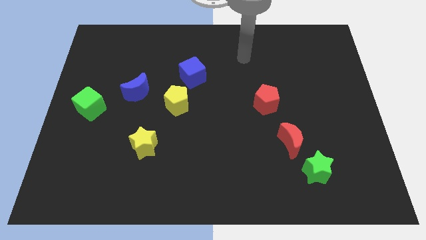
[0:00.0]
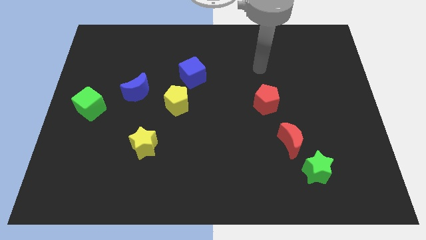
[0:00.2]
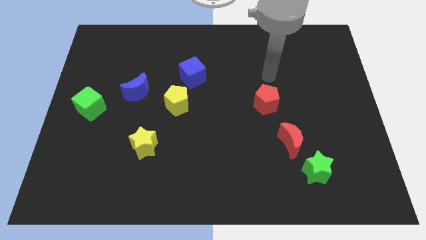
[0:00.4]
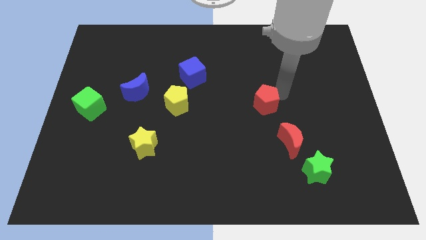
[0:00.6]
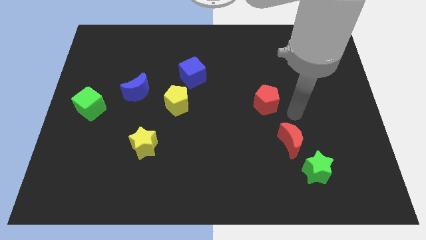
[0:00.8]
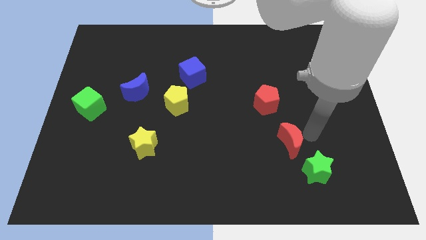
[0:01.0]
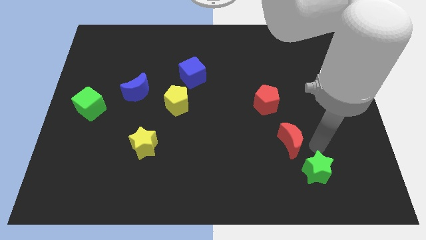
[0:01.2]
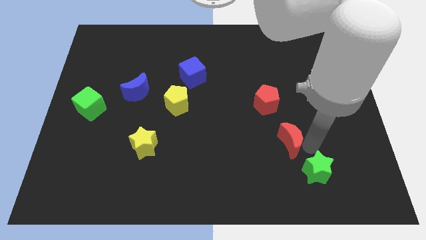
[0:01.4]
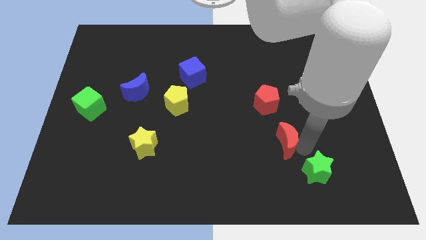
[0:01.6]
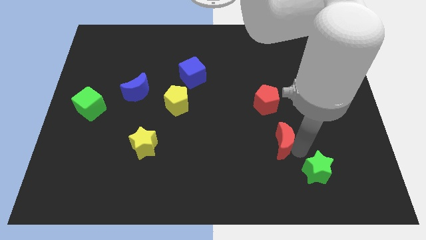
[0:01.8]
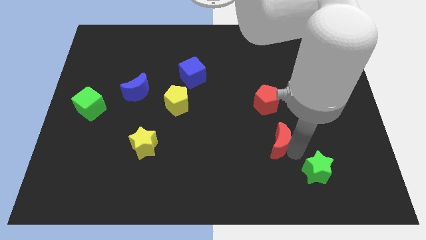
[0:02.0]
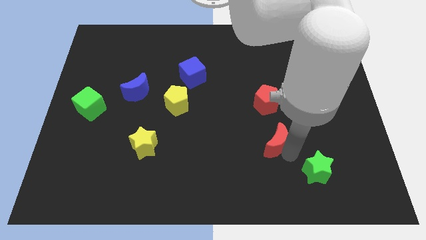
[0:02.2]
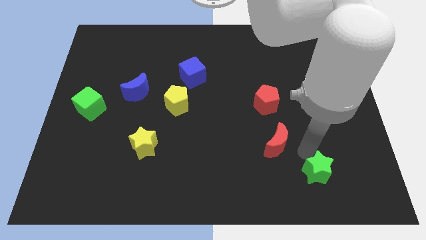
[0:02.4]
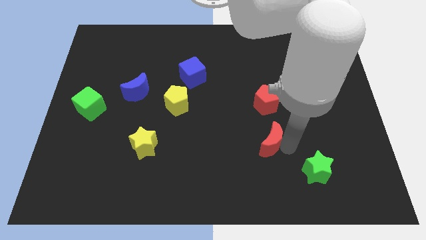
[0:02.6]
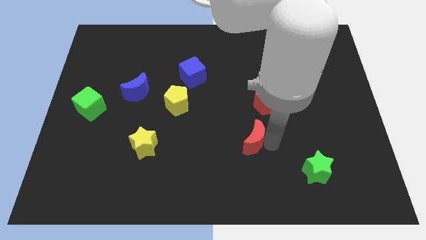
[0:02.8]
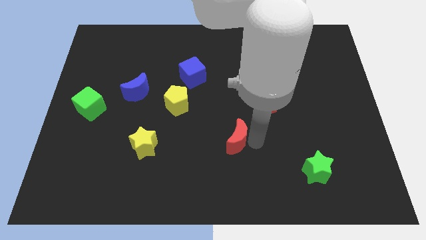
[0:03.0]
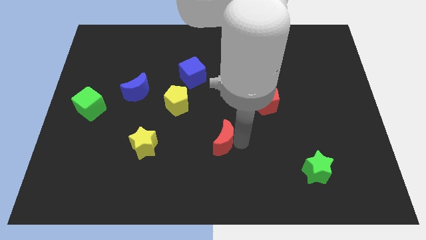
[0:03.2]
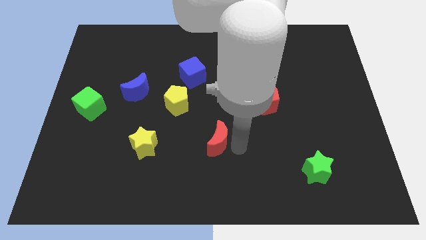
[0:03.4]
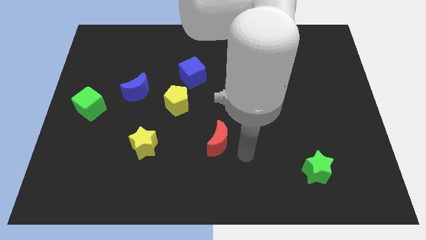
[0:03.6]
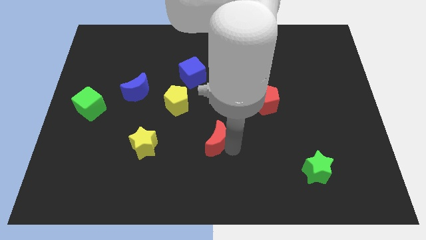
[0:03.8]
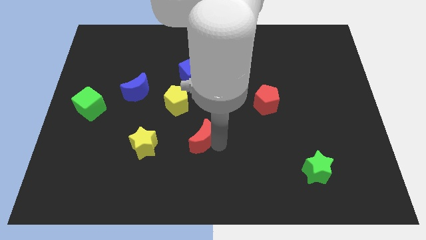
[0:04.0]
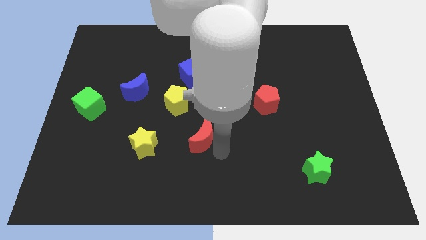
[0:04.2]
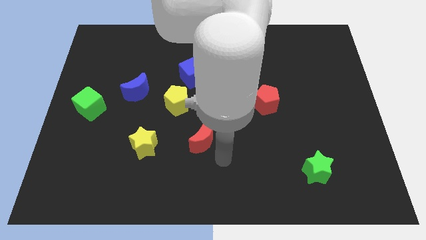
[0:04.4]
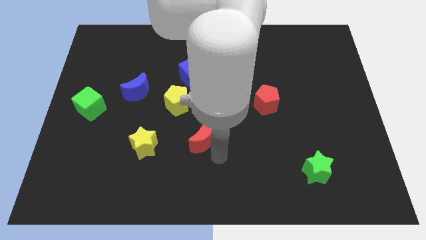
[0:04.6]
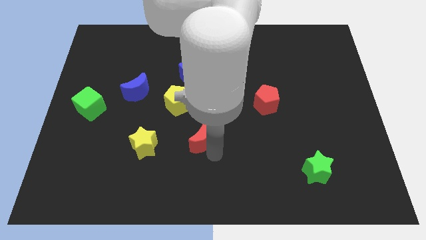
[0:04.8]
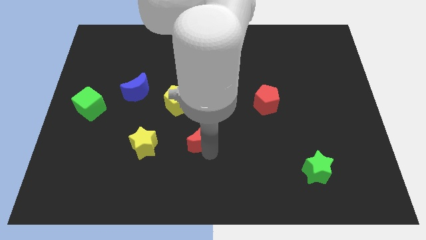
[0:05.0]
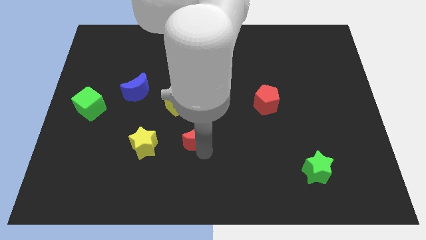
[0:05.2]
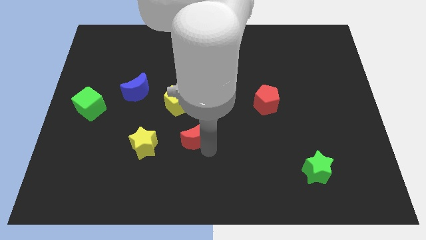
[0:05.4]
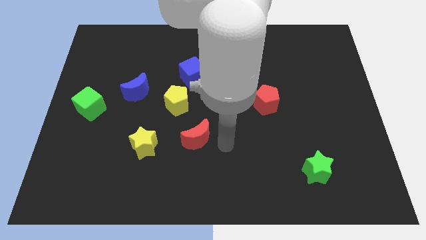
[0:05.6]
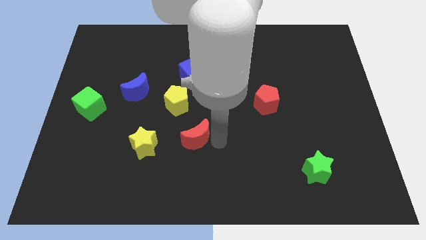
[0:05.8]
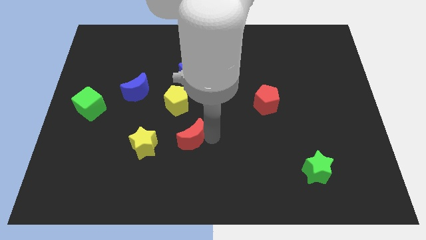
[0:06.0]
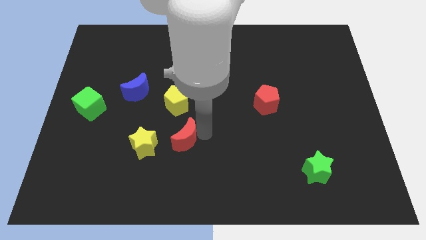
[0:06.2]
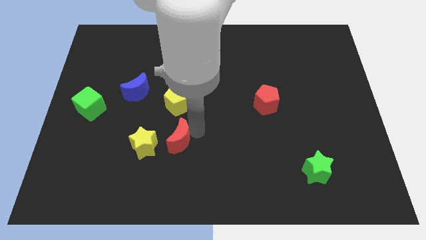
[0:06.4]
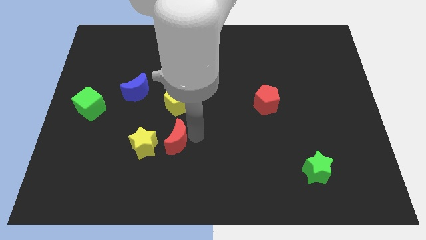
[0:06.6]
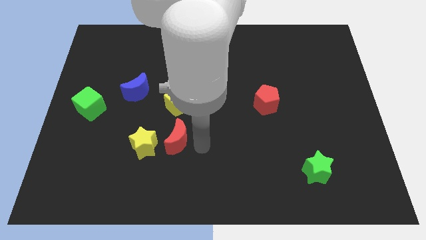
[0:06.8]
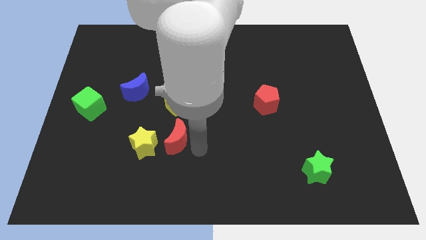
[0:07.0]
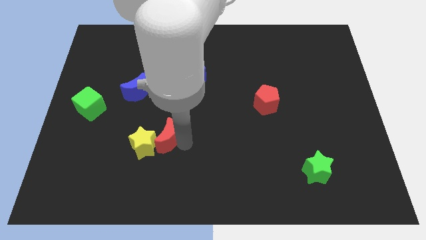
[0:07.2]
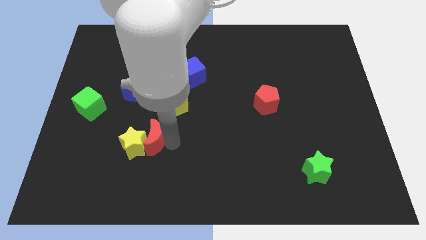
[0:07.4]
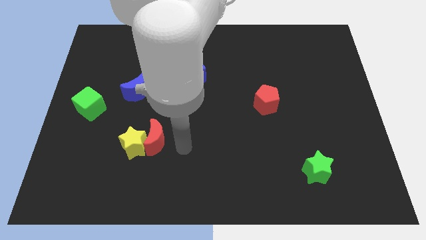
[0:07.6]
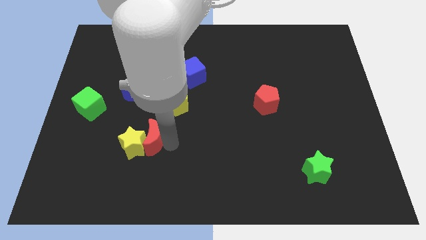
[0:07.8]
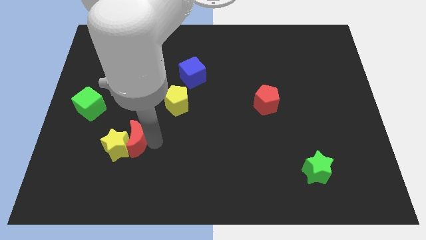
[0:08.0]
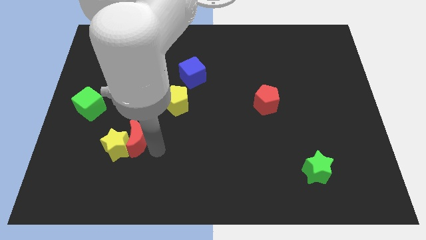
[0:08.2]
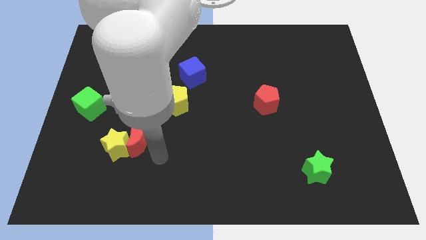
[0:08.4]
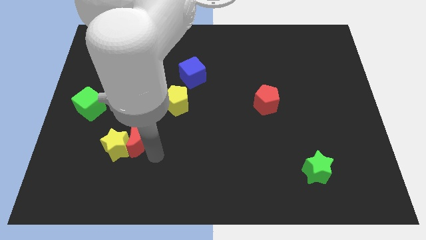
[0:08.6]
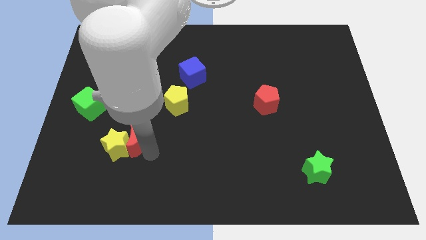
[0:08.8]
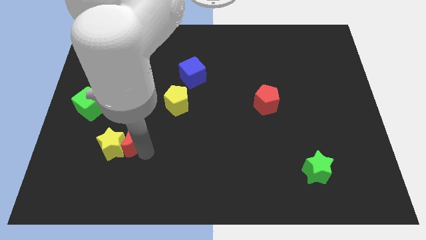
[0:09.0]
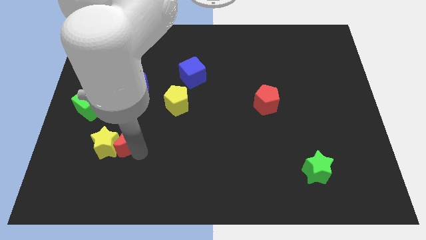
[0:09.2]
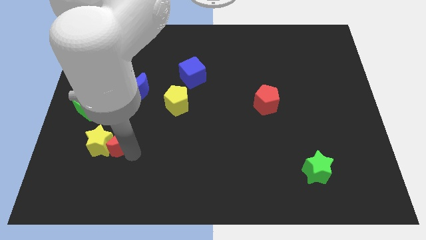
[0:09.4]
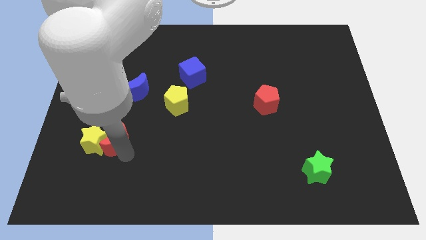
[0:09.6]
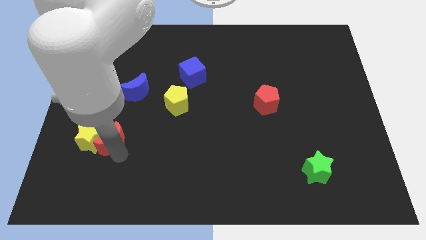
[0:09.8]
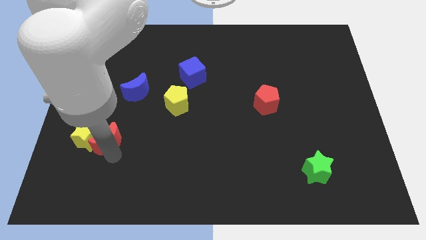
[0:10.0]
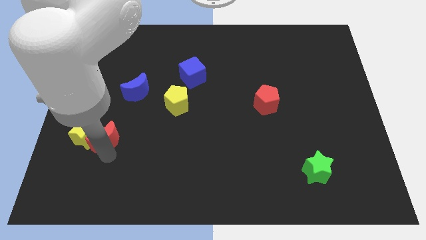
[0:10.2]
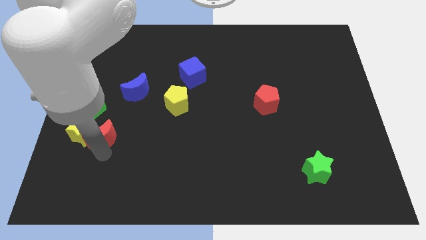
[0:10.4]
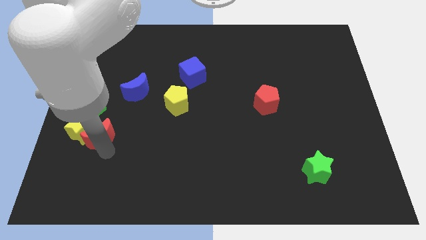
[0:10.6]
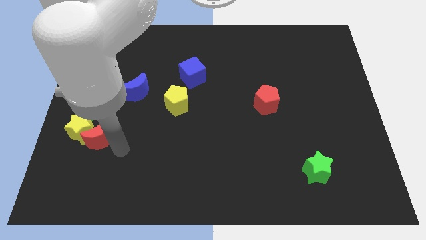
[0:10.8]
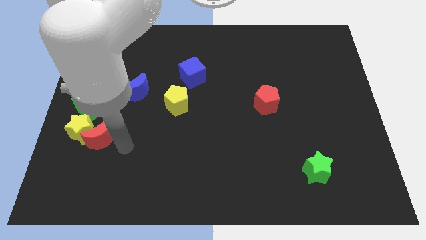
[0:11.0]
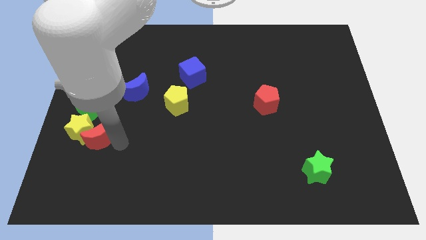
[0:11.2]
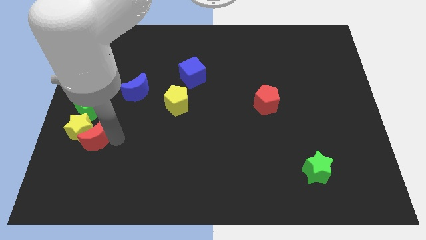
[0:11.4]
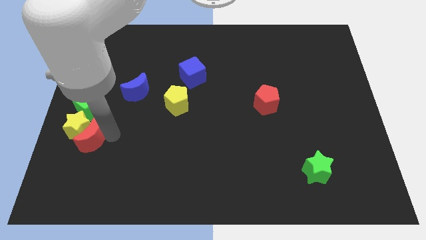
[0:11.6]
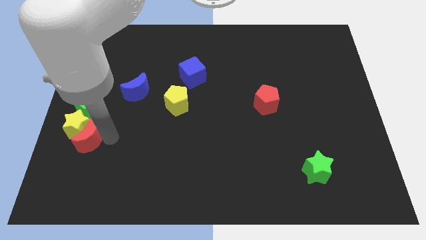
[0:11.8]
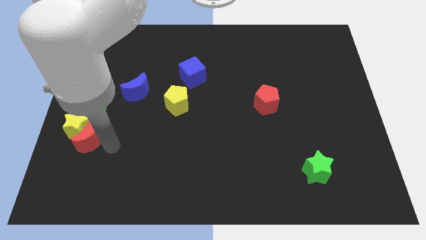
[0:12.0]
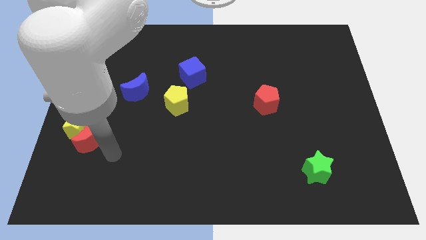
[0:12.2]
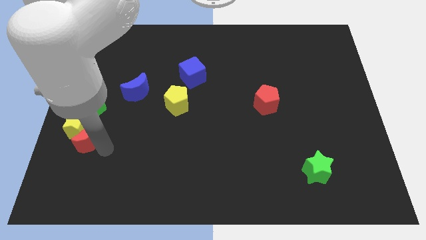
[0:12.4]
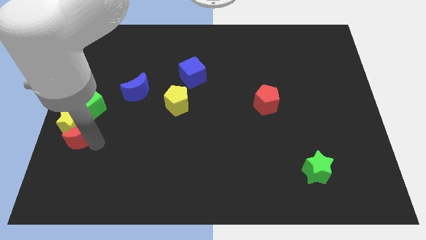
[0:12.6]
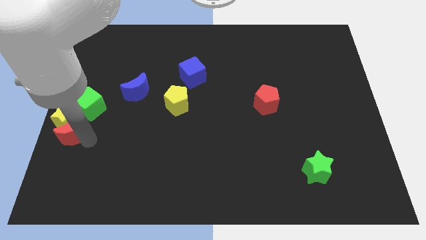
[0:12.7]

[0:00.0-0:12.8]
push the red moon to the center left
